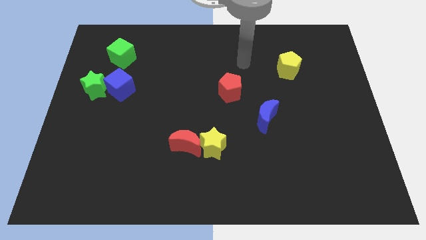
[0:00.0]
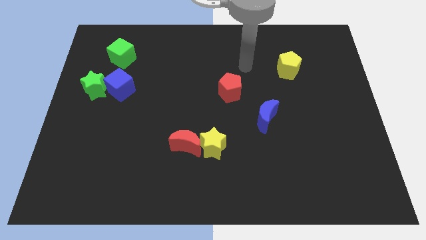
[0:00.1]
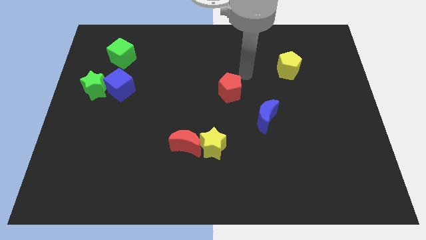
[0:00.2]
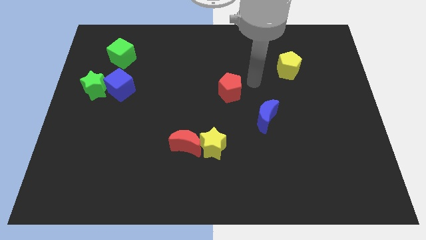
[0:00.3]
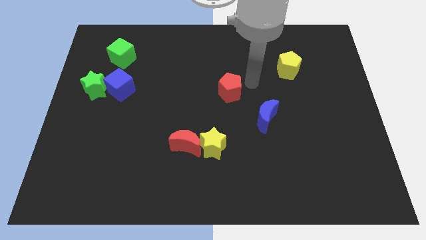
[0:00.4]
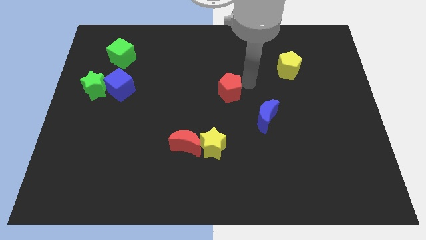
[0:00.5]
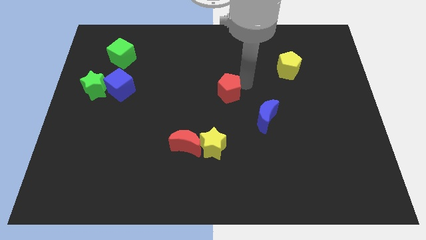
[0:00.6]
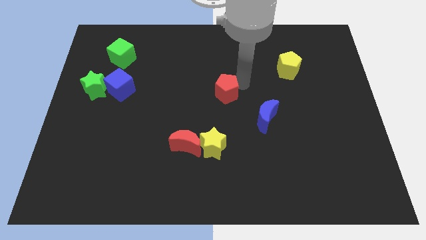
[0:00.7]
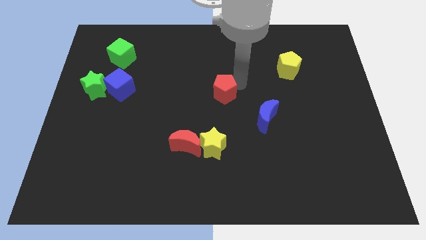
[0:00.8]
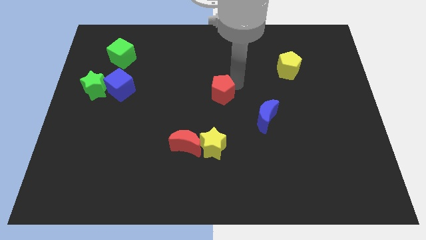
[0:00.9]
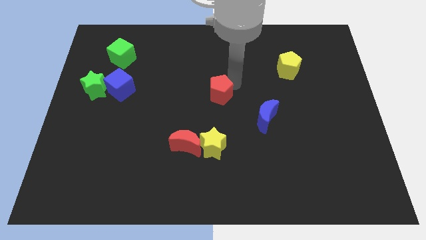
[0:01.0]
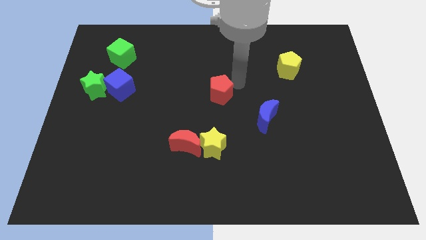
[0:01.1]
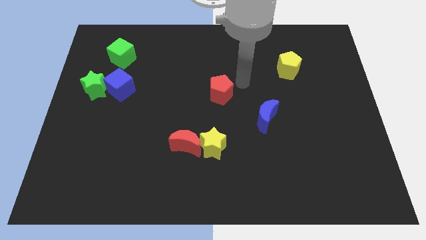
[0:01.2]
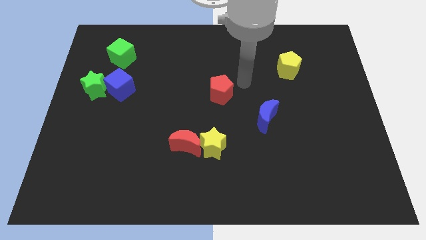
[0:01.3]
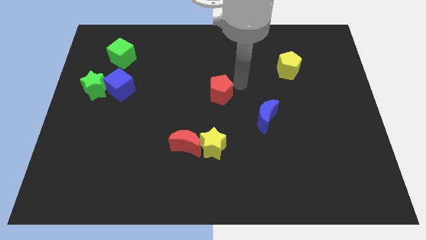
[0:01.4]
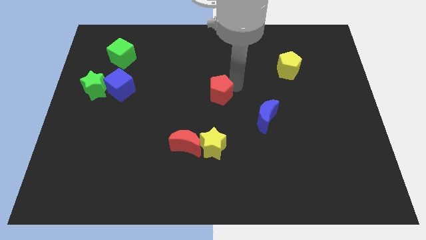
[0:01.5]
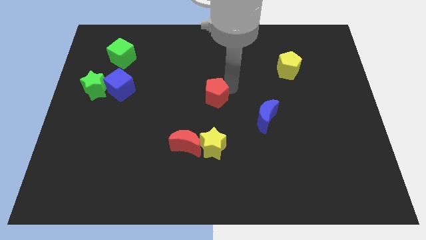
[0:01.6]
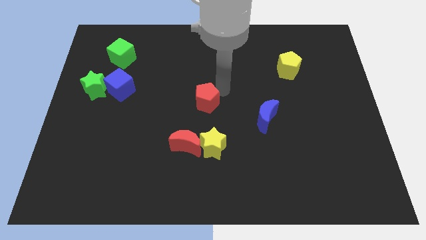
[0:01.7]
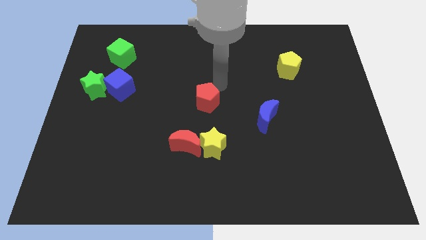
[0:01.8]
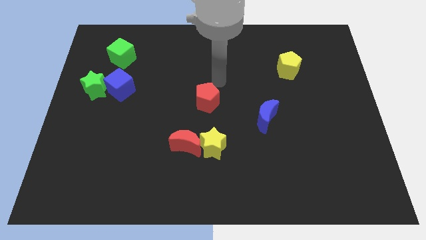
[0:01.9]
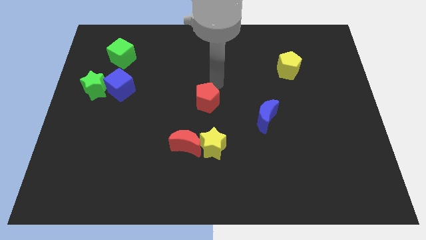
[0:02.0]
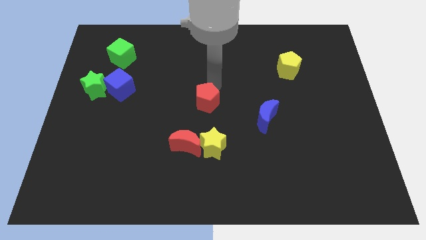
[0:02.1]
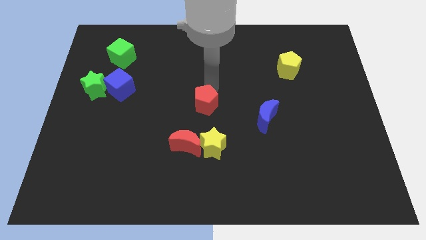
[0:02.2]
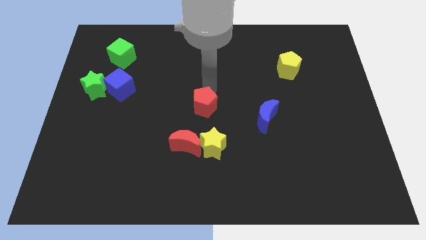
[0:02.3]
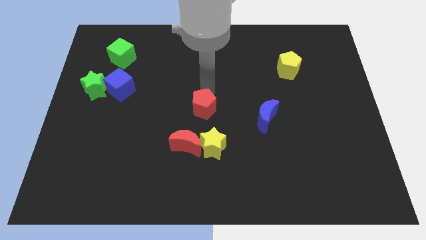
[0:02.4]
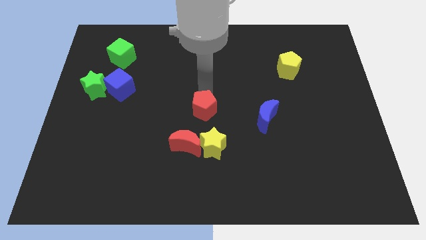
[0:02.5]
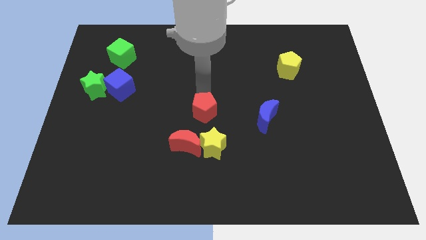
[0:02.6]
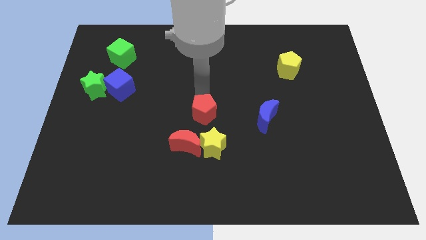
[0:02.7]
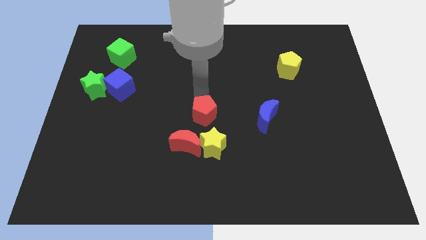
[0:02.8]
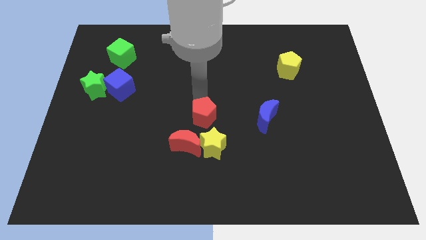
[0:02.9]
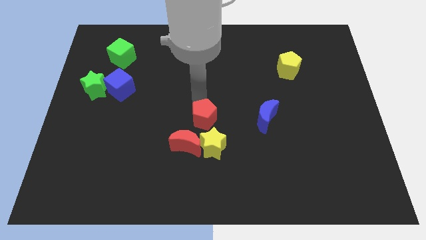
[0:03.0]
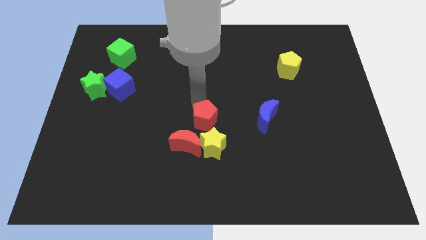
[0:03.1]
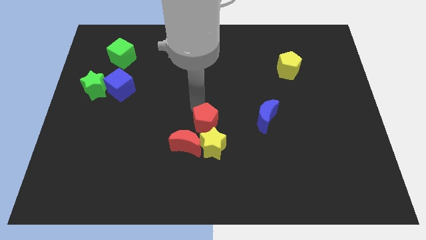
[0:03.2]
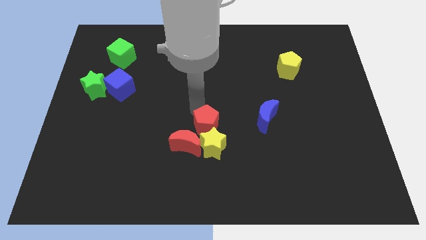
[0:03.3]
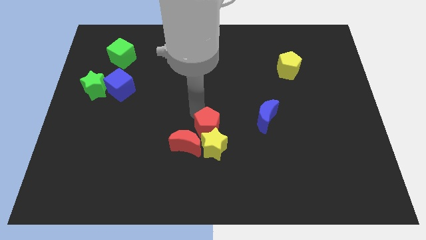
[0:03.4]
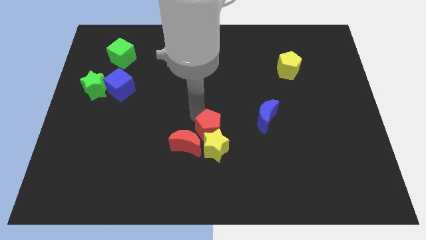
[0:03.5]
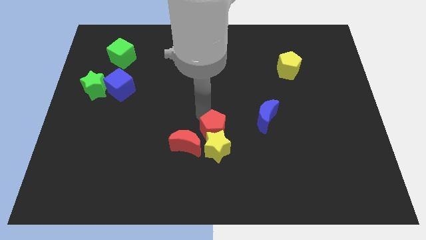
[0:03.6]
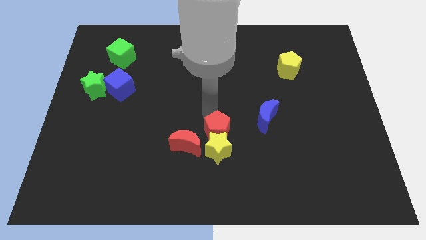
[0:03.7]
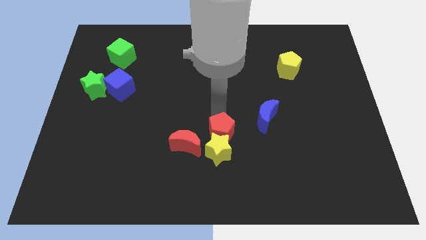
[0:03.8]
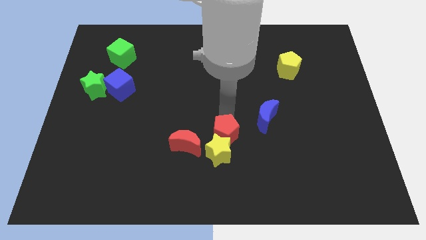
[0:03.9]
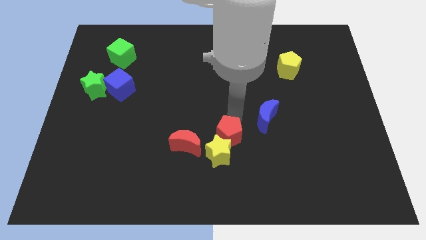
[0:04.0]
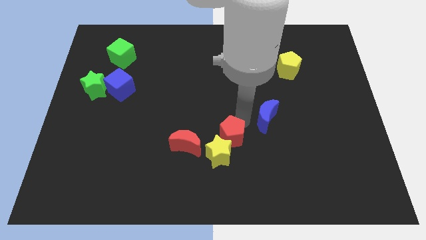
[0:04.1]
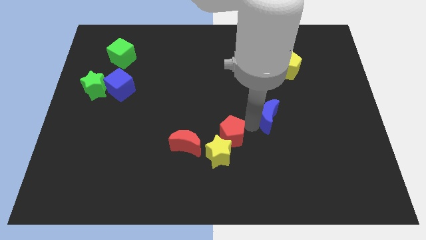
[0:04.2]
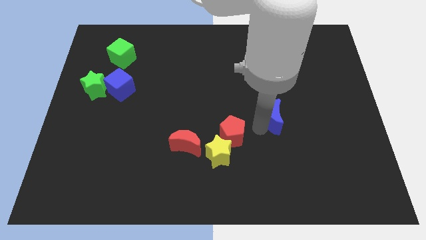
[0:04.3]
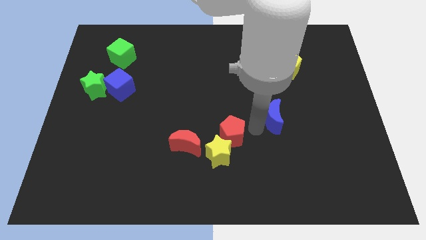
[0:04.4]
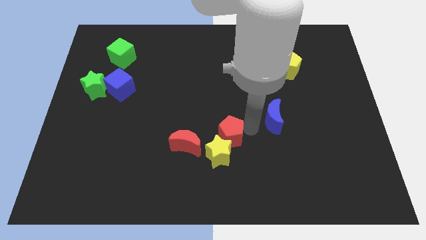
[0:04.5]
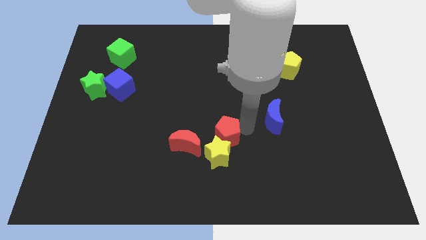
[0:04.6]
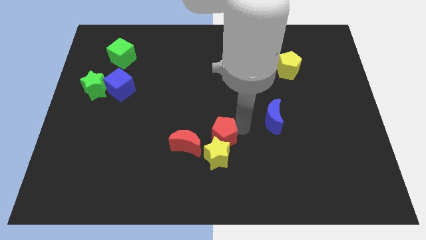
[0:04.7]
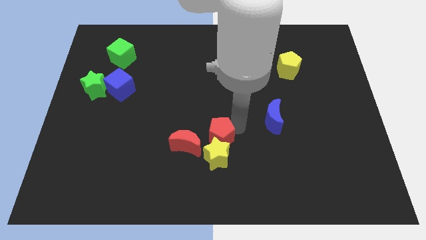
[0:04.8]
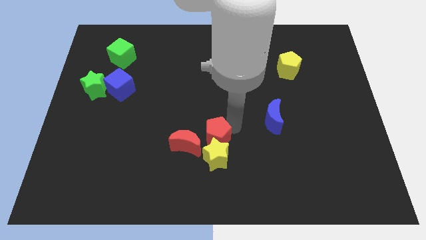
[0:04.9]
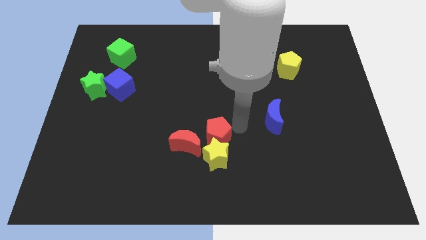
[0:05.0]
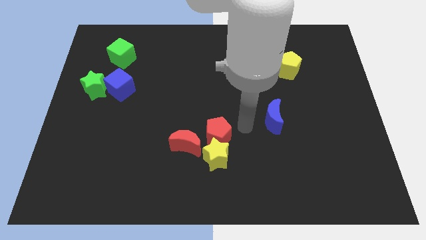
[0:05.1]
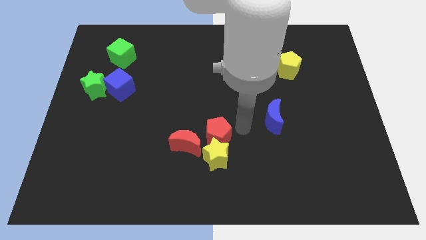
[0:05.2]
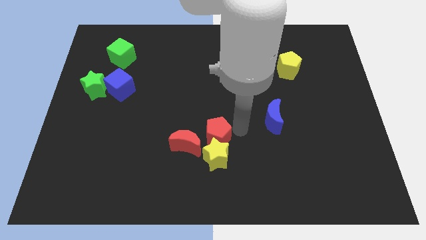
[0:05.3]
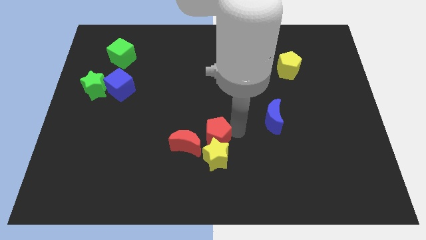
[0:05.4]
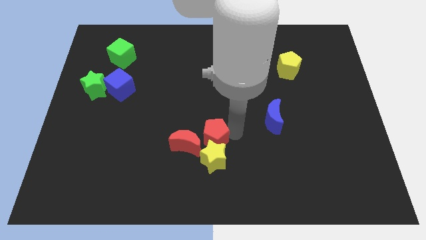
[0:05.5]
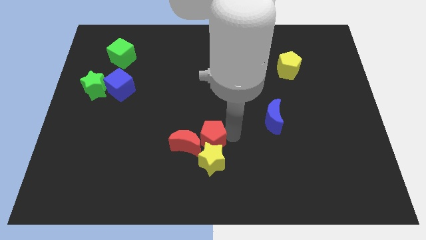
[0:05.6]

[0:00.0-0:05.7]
move the red pentagon close to the red moon

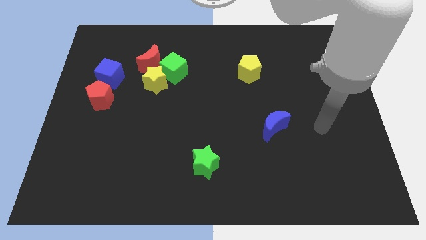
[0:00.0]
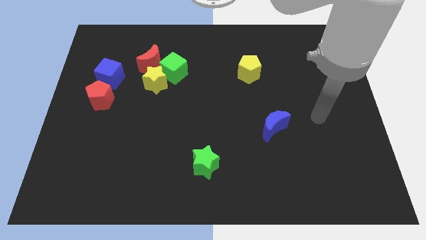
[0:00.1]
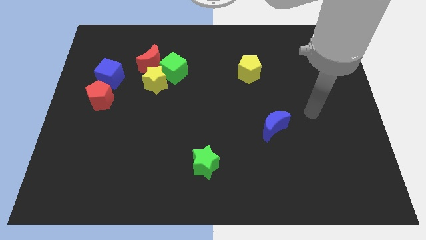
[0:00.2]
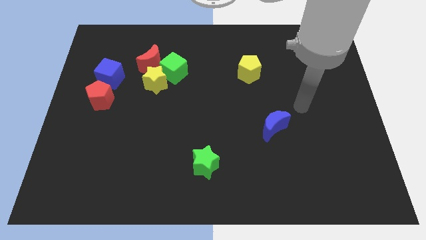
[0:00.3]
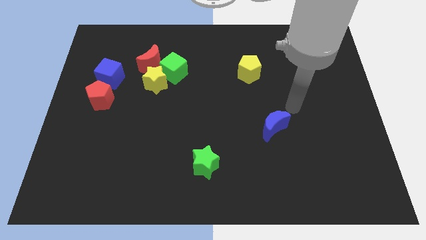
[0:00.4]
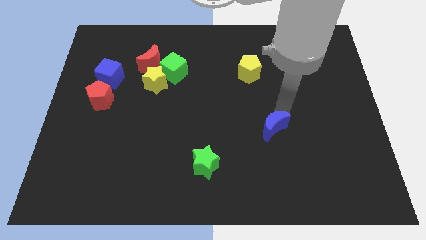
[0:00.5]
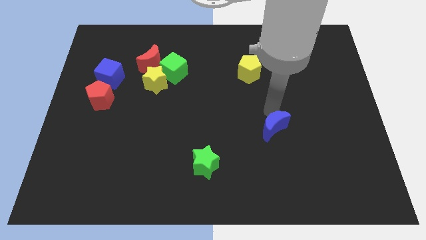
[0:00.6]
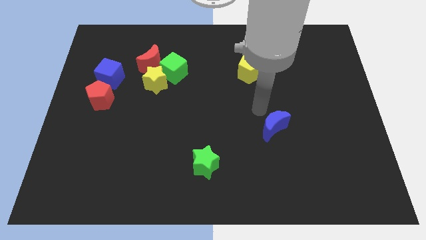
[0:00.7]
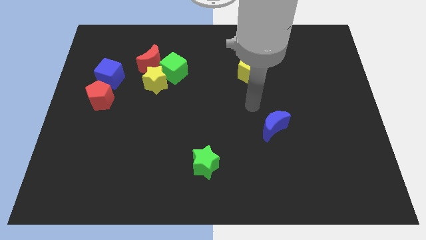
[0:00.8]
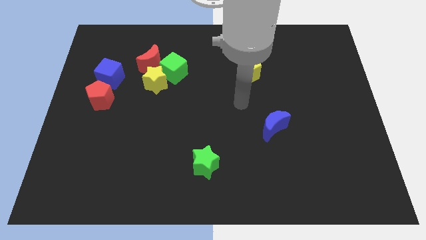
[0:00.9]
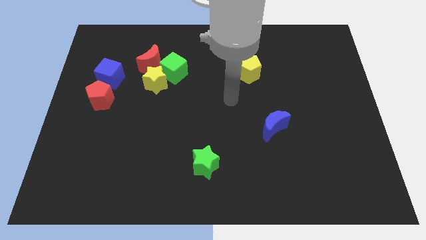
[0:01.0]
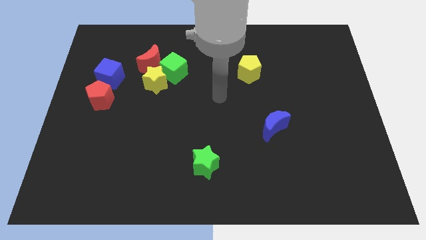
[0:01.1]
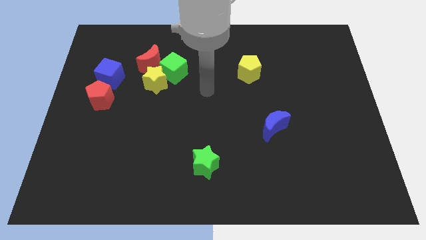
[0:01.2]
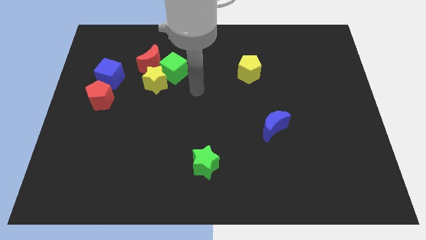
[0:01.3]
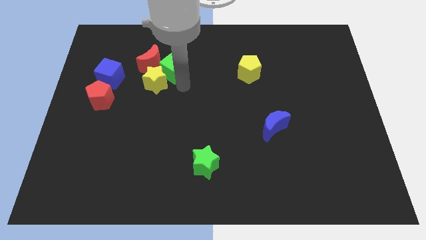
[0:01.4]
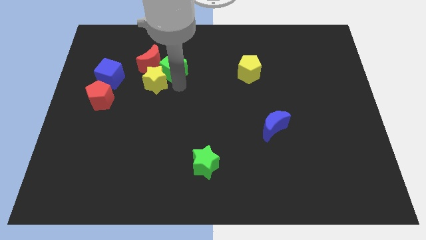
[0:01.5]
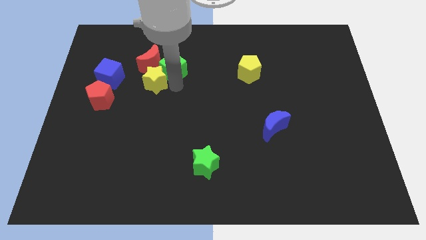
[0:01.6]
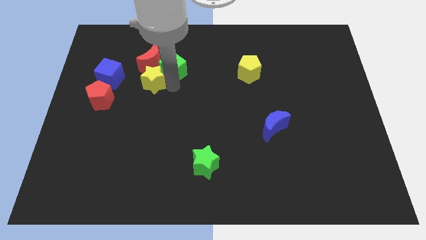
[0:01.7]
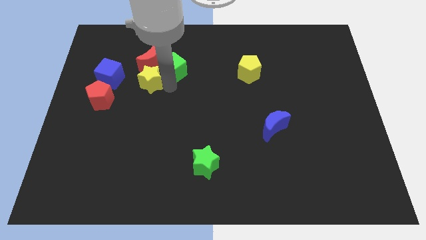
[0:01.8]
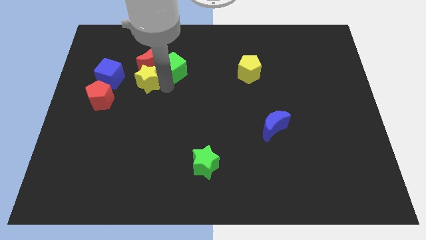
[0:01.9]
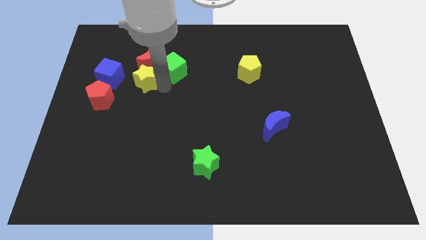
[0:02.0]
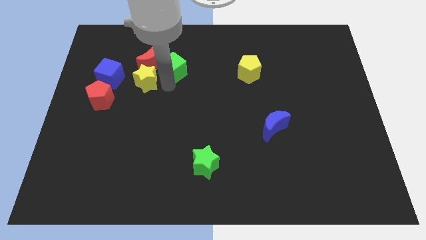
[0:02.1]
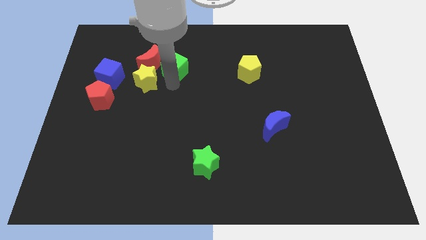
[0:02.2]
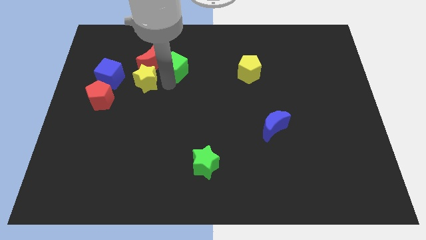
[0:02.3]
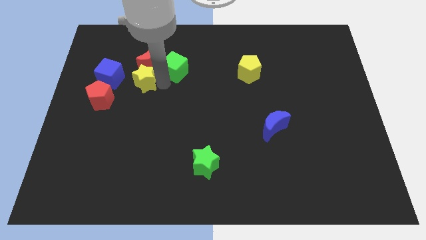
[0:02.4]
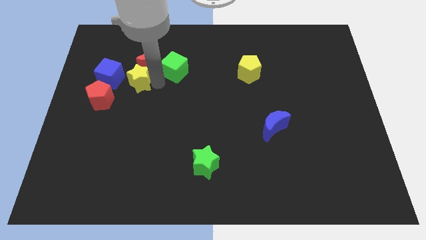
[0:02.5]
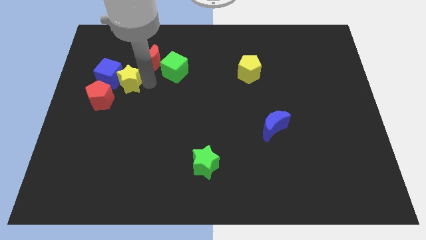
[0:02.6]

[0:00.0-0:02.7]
slide the yellow star to the blue cube
